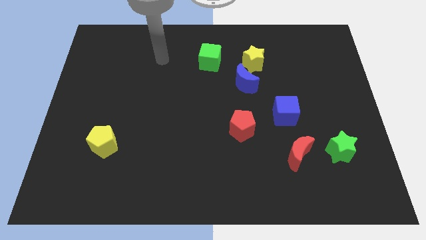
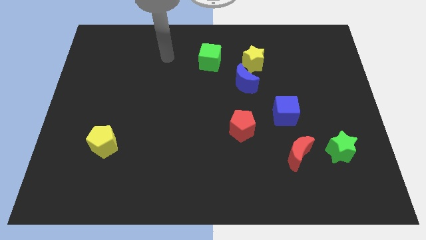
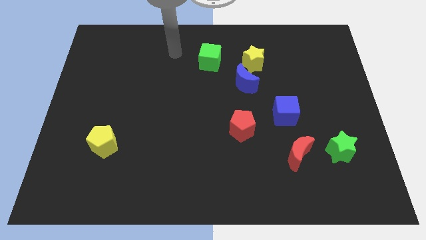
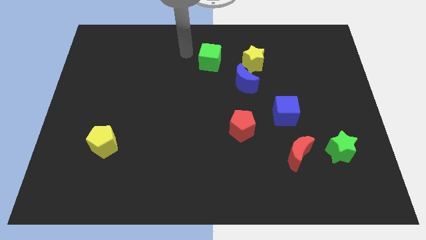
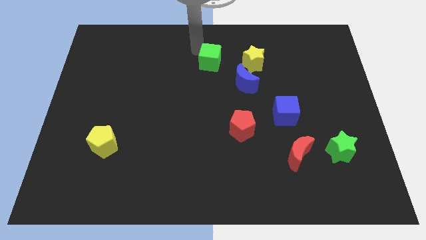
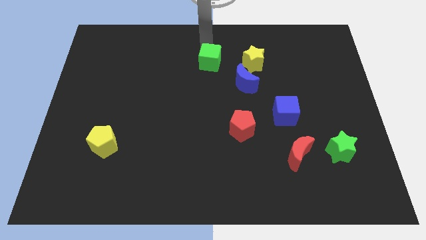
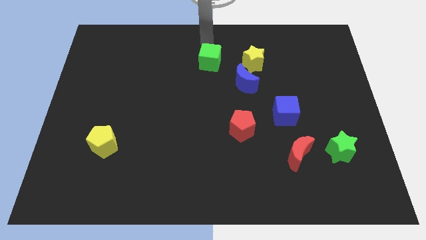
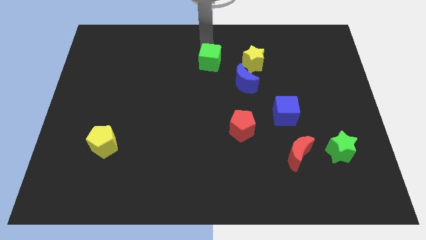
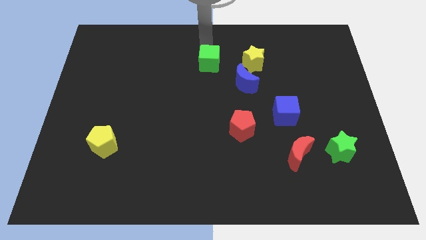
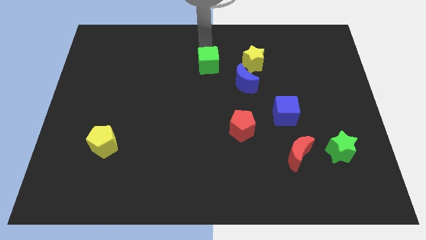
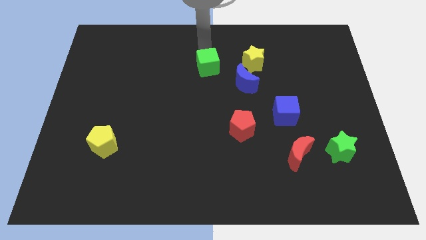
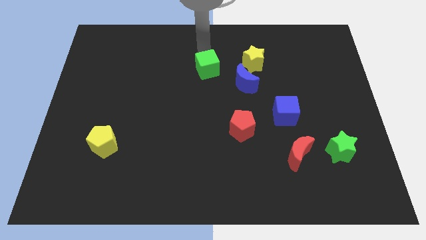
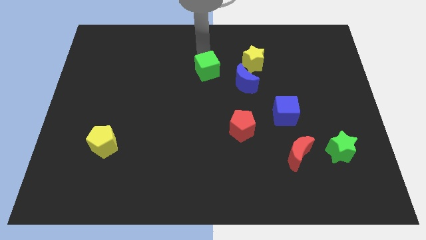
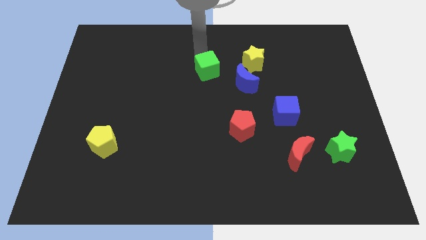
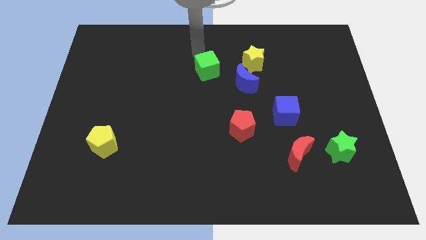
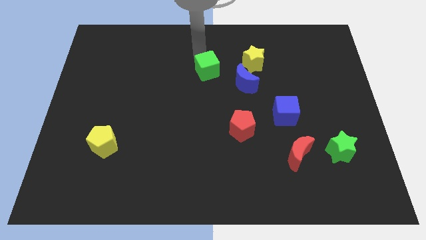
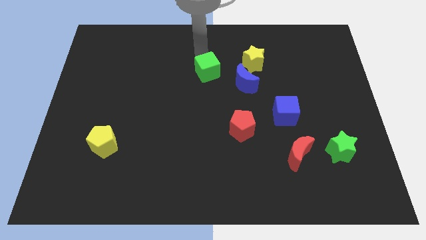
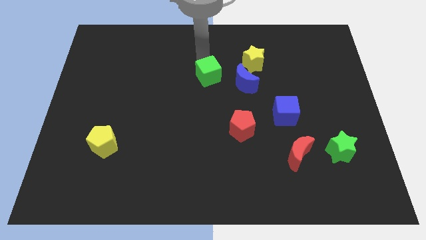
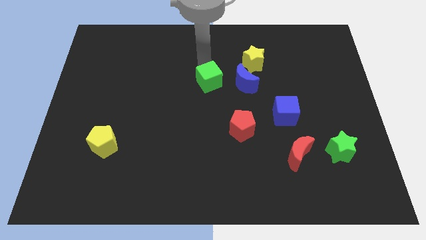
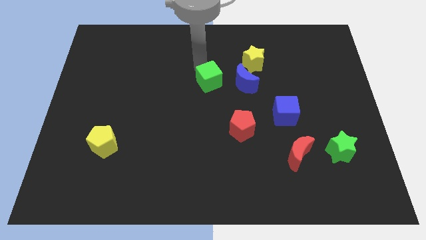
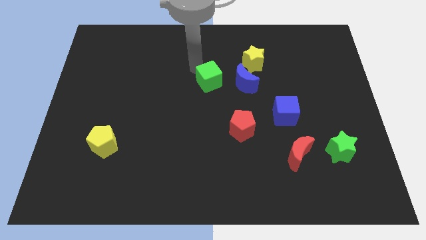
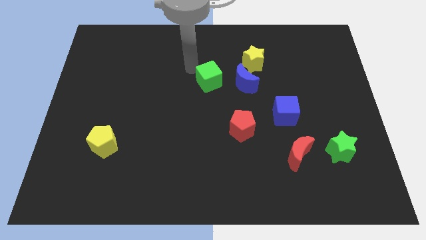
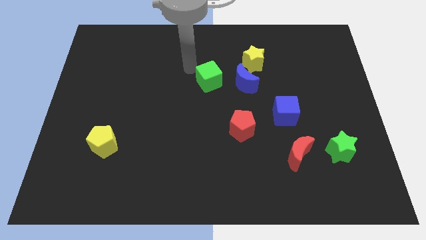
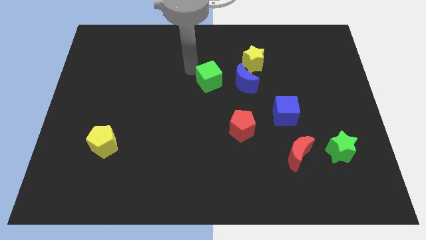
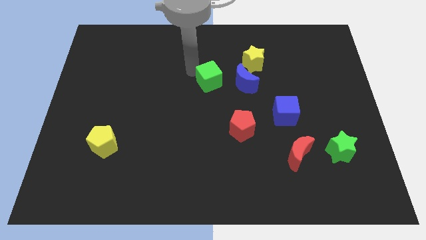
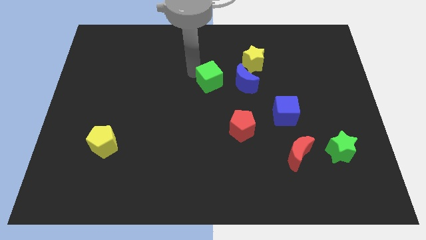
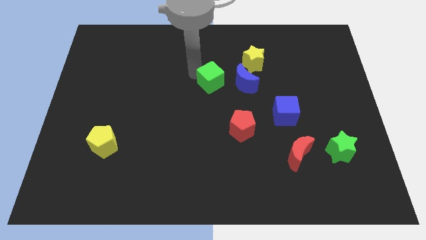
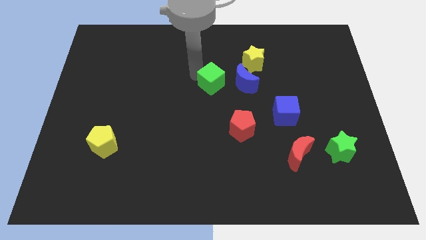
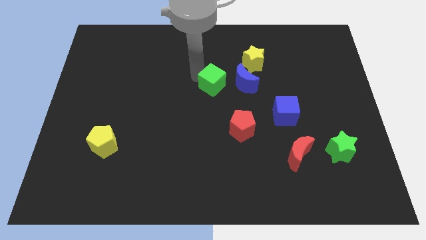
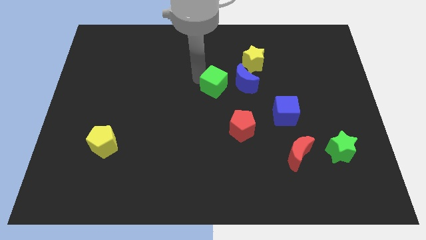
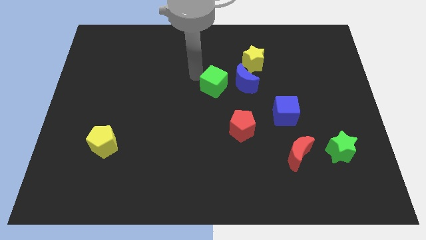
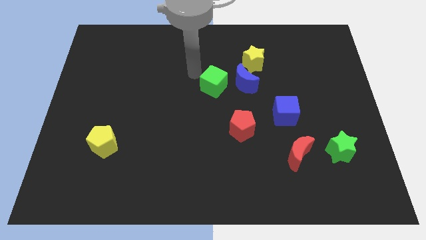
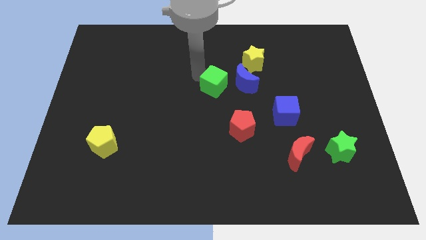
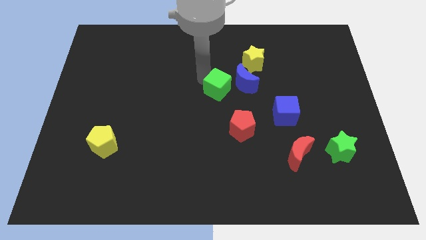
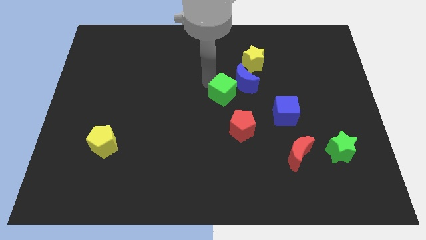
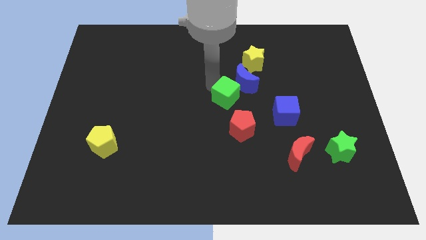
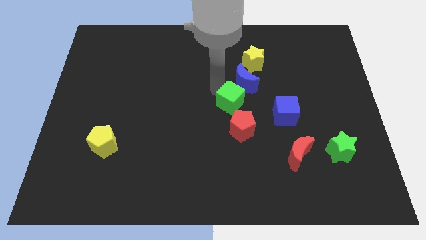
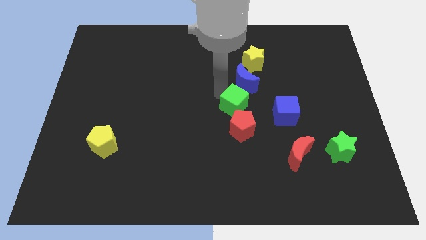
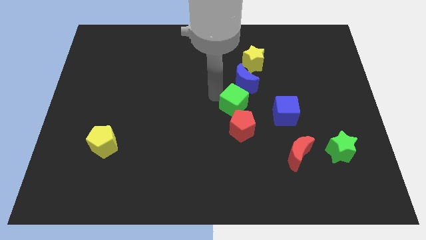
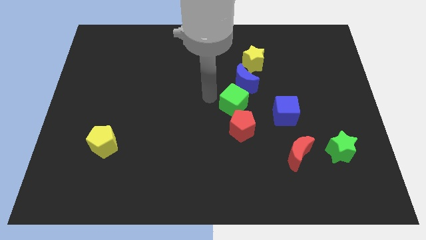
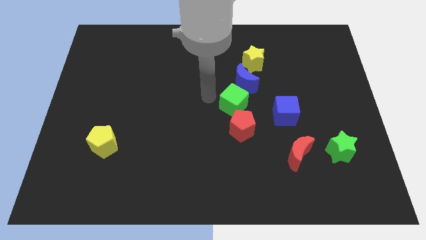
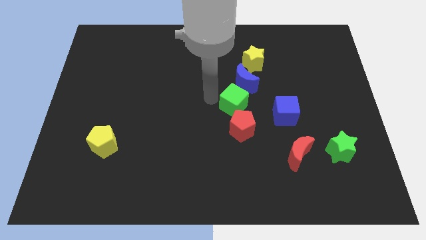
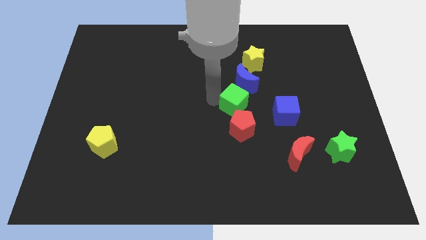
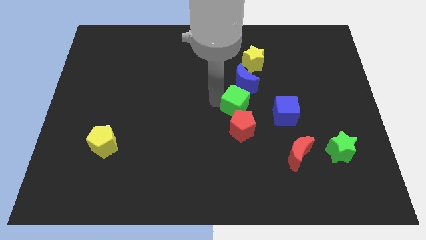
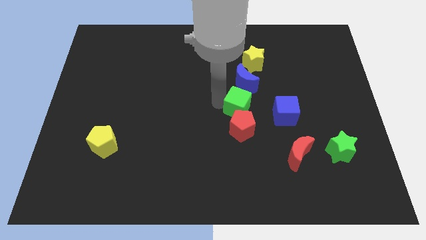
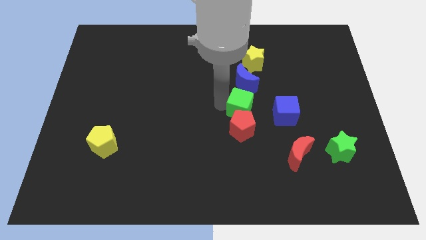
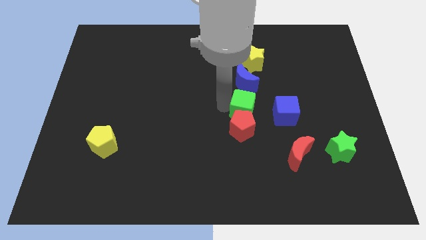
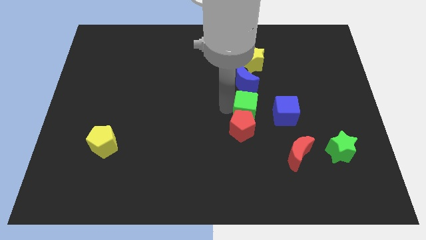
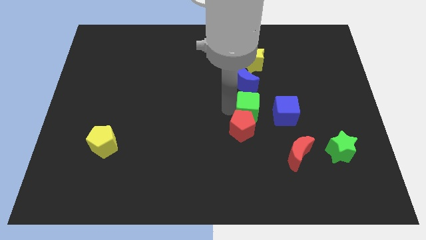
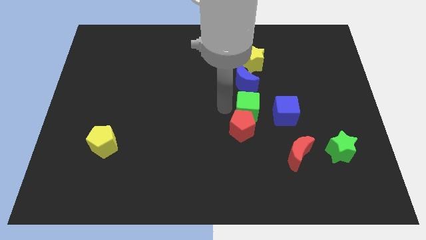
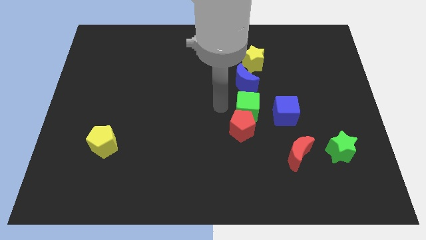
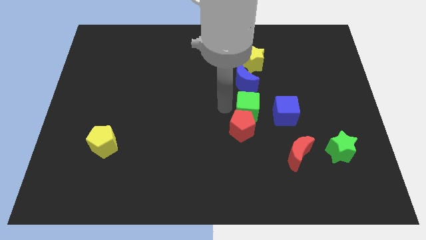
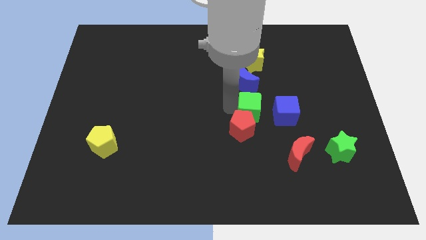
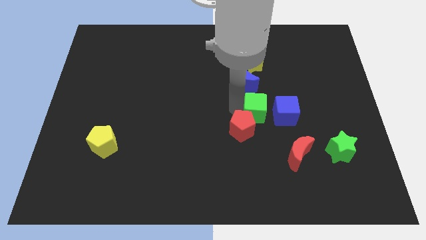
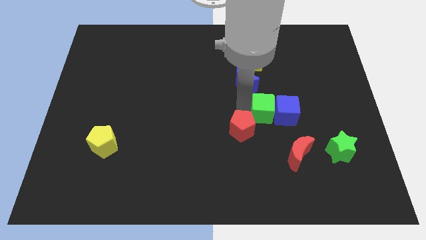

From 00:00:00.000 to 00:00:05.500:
move the green cube down and to the right

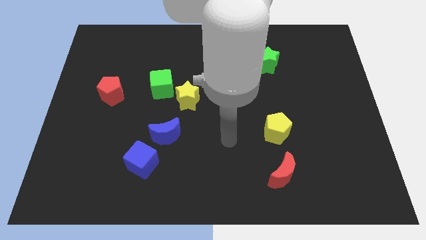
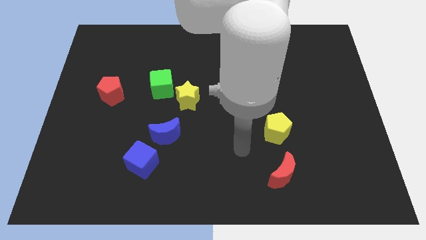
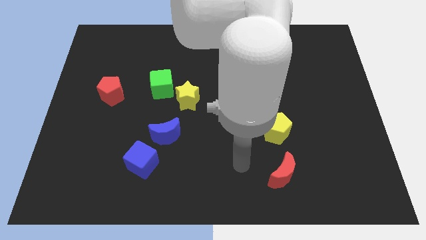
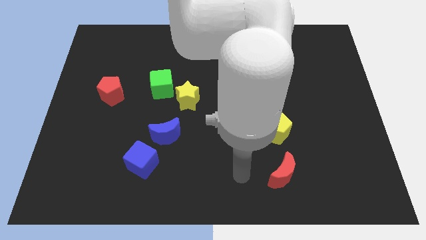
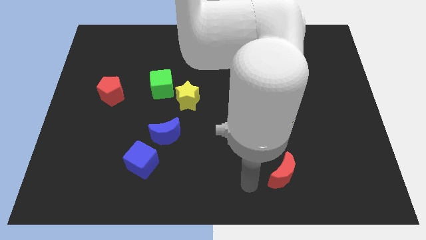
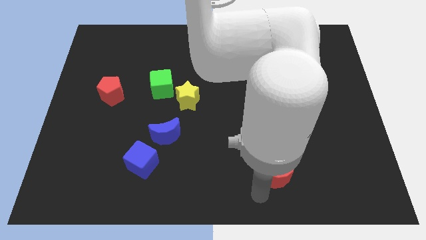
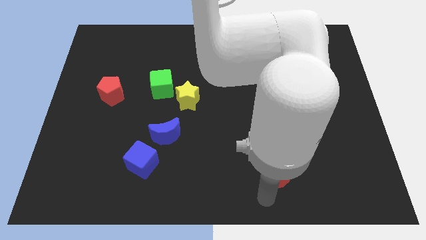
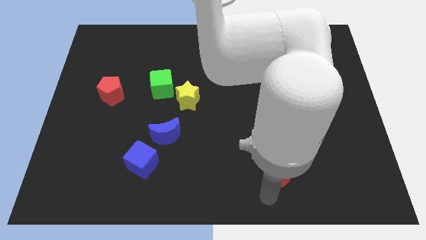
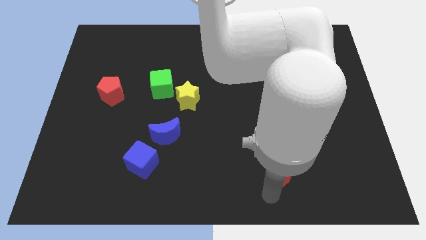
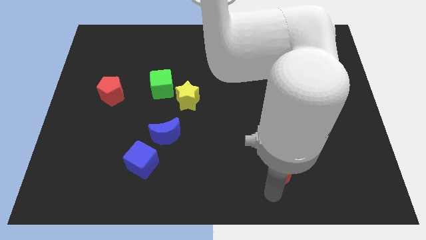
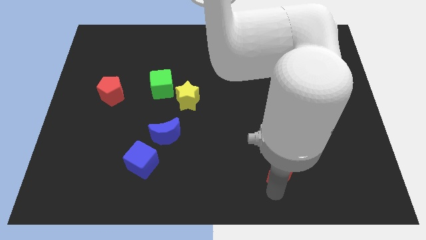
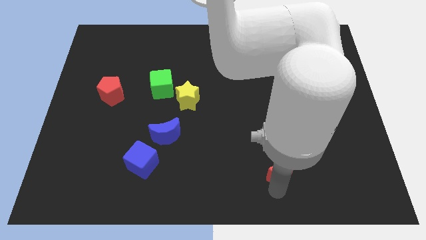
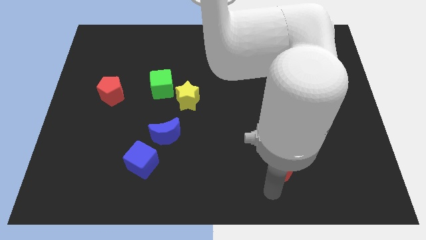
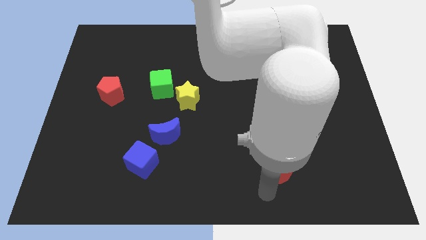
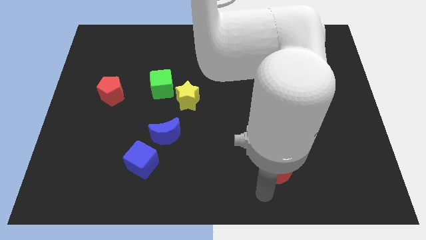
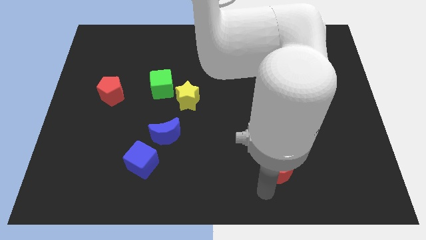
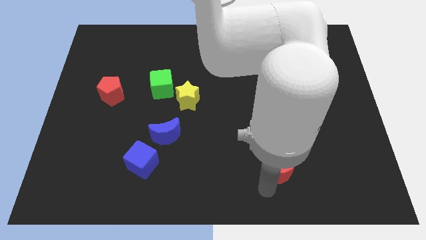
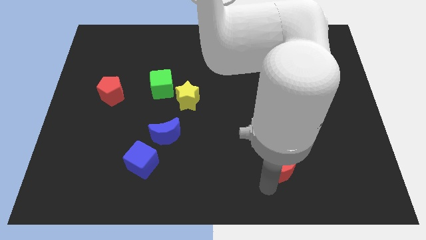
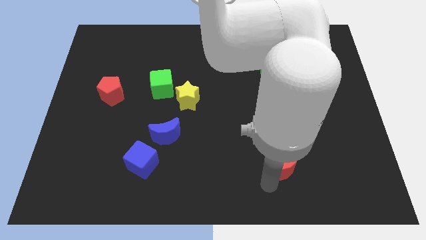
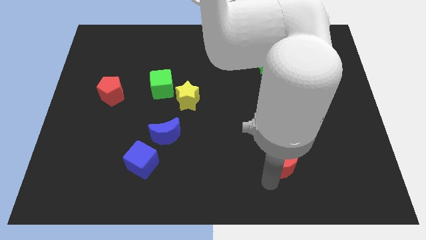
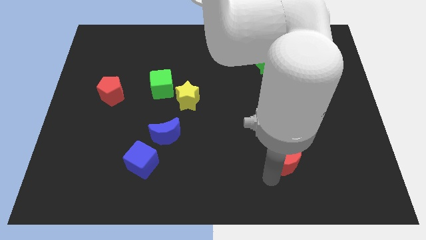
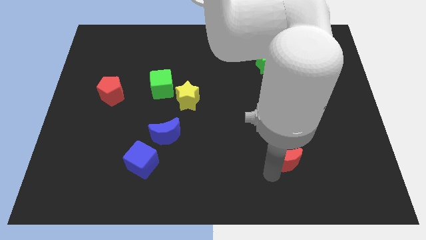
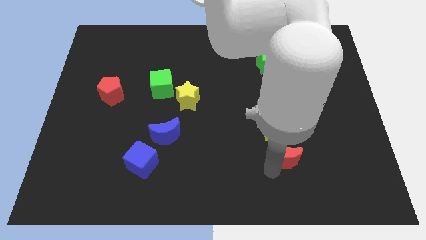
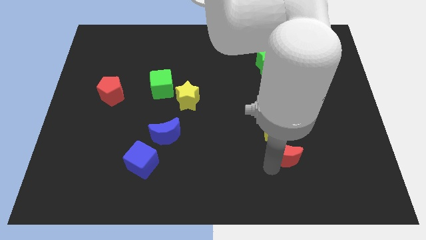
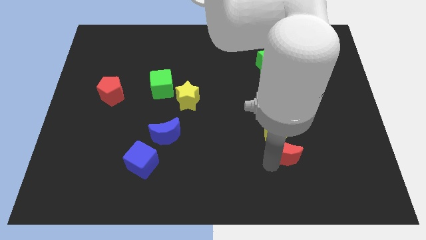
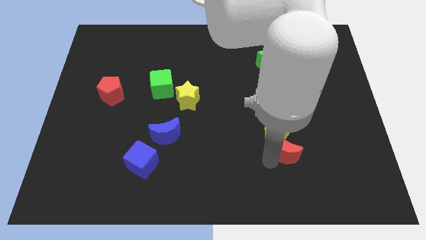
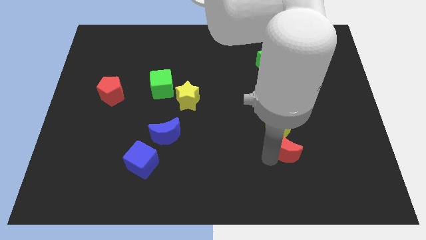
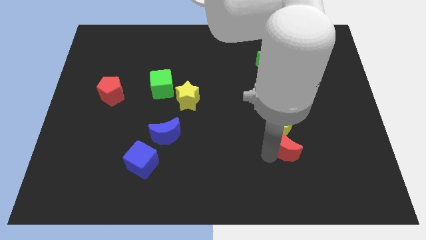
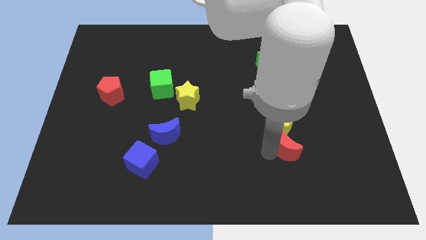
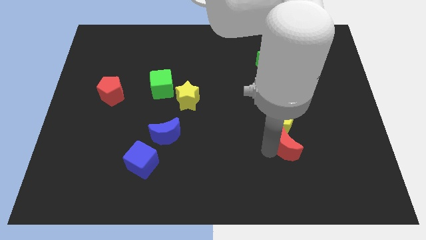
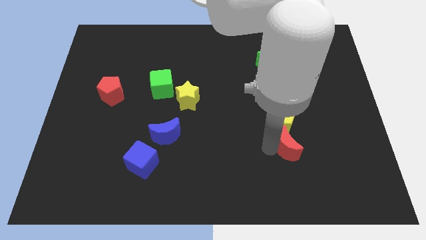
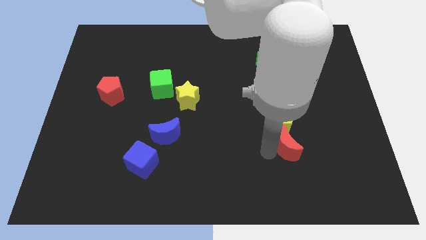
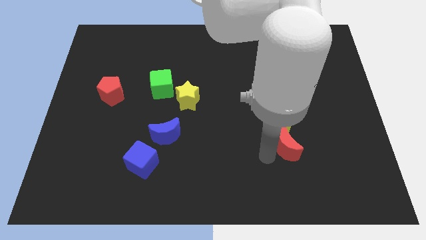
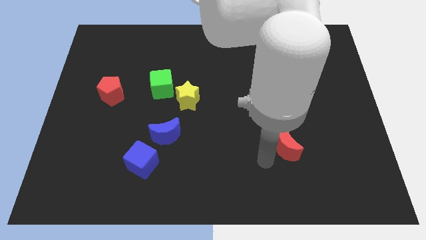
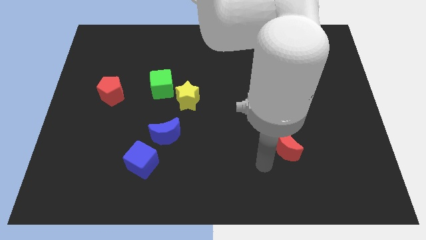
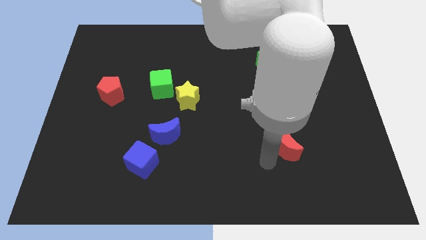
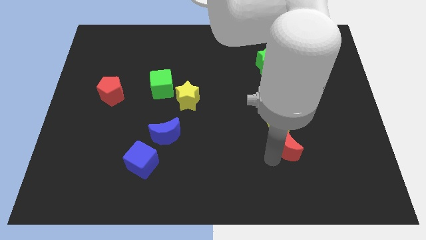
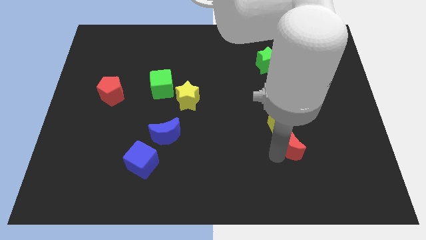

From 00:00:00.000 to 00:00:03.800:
push the red moon a bit up
